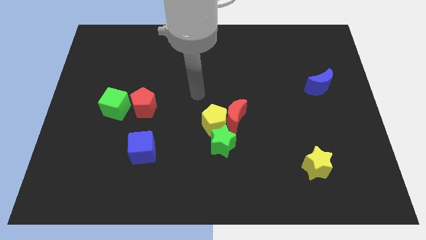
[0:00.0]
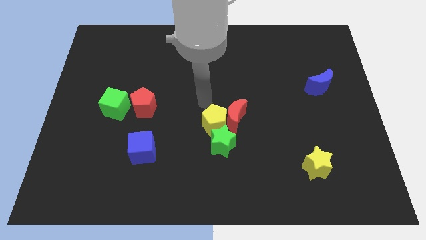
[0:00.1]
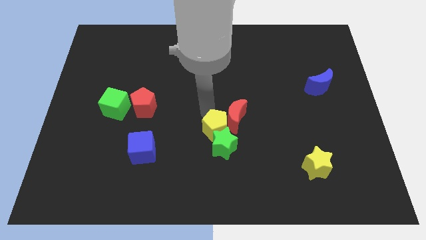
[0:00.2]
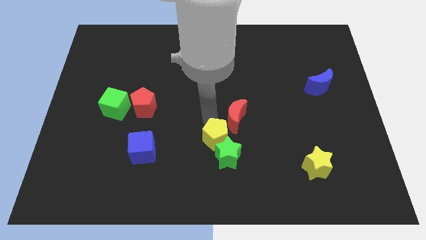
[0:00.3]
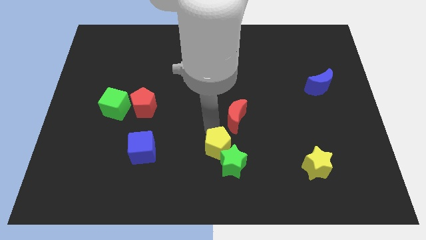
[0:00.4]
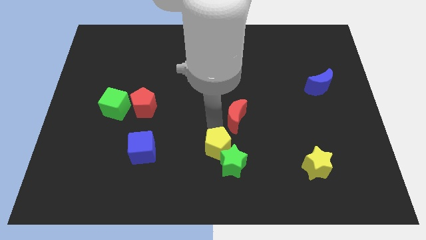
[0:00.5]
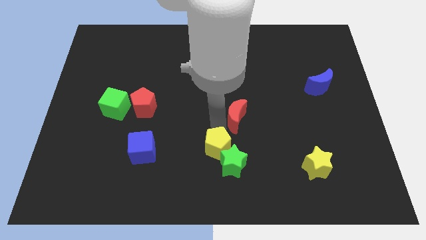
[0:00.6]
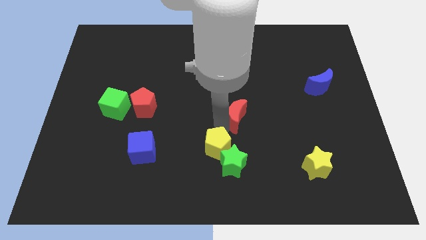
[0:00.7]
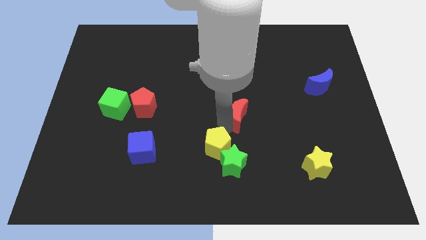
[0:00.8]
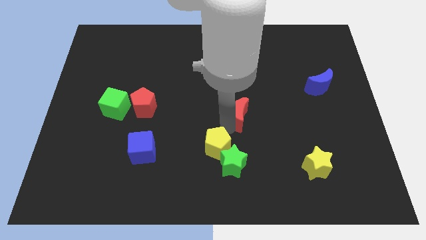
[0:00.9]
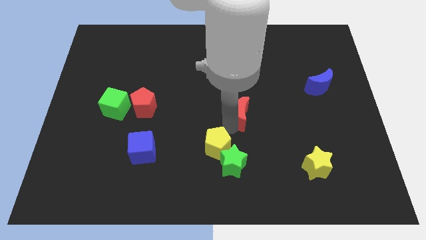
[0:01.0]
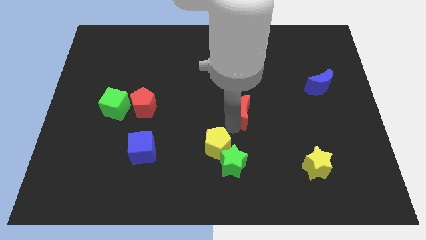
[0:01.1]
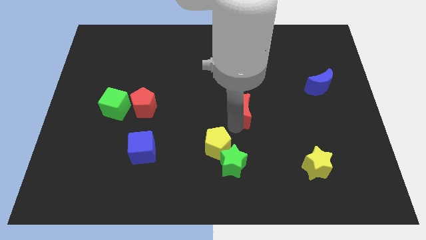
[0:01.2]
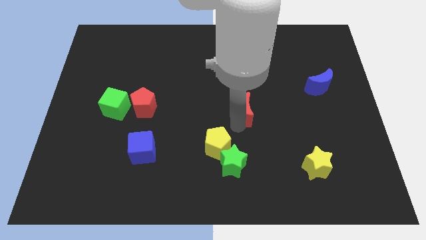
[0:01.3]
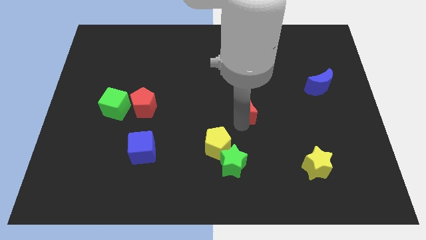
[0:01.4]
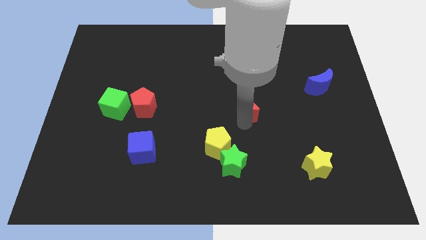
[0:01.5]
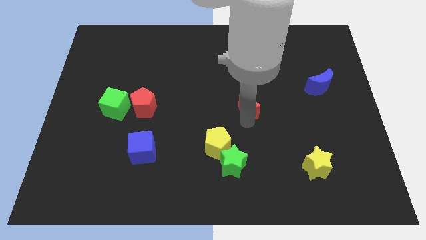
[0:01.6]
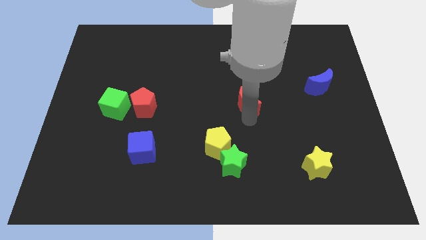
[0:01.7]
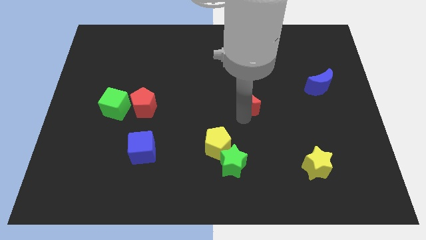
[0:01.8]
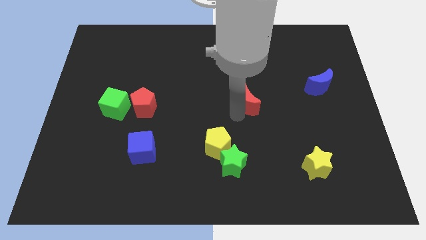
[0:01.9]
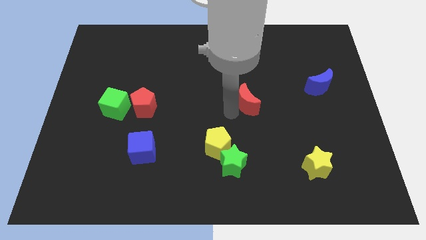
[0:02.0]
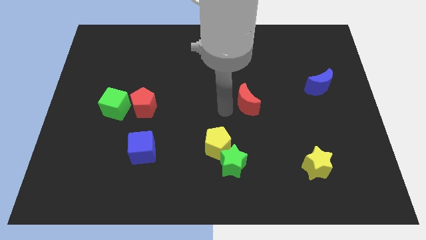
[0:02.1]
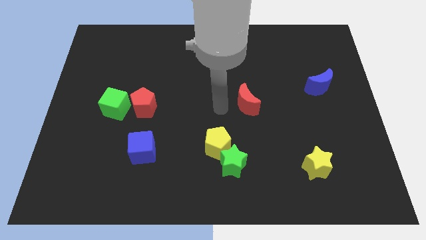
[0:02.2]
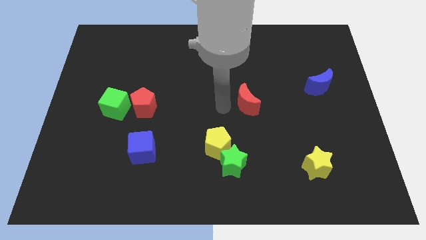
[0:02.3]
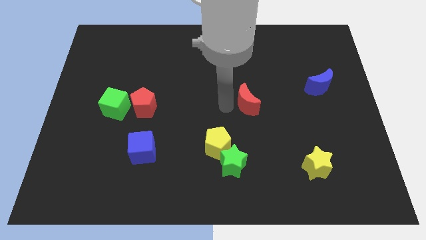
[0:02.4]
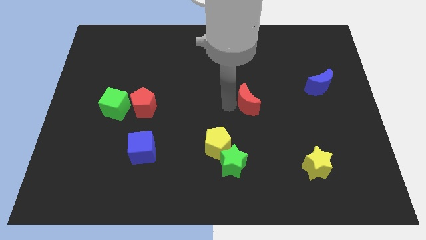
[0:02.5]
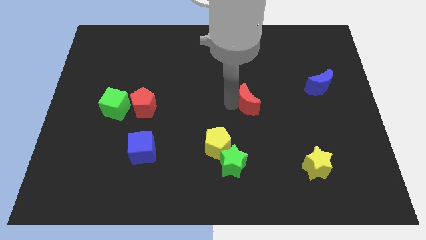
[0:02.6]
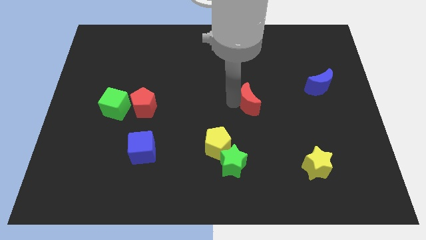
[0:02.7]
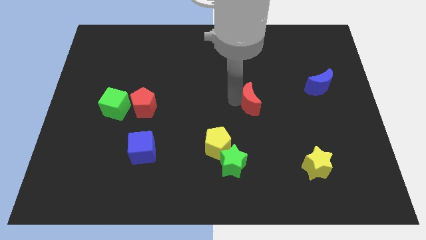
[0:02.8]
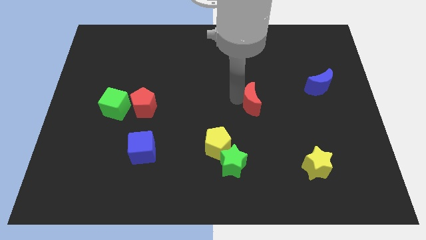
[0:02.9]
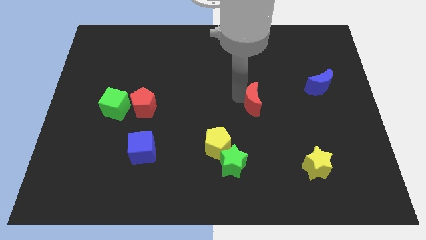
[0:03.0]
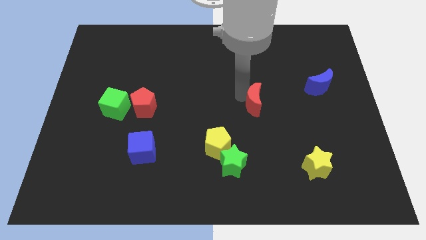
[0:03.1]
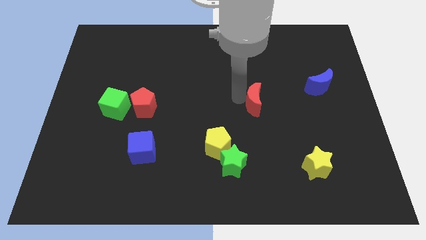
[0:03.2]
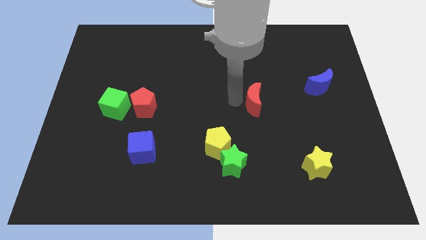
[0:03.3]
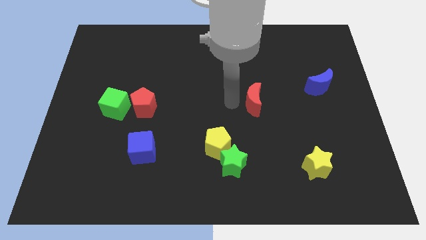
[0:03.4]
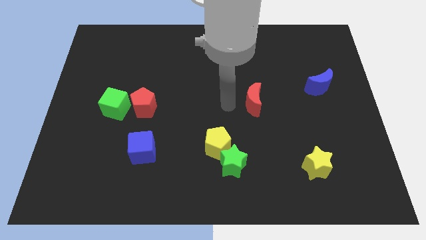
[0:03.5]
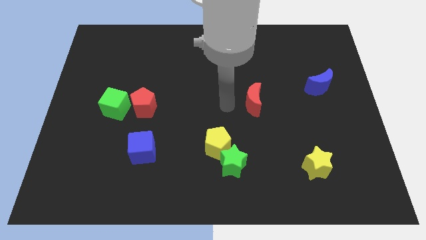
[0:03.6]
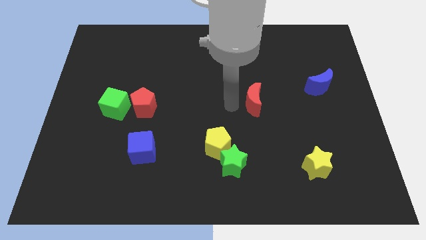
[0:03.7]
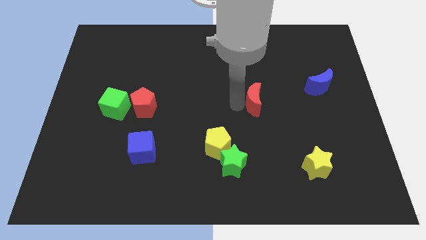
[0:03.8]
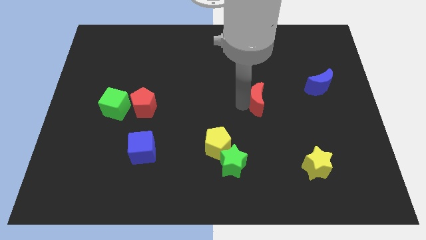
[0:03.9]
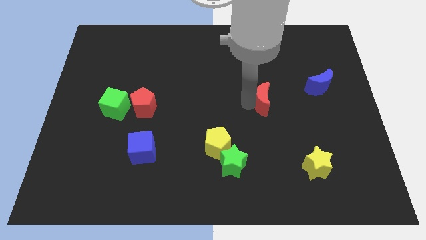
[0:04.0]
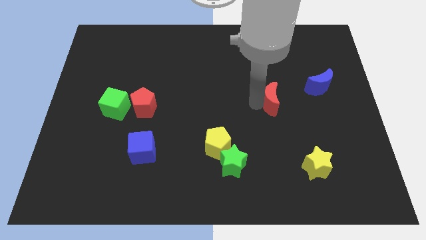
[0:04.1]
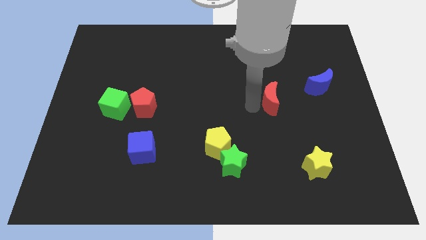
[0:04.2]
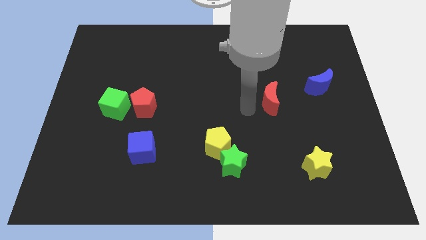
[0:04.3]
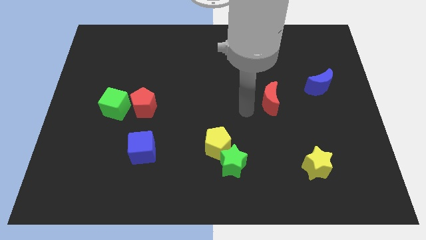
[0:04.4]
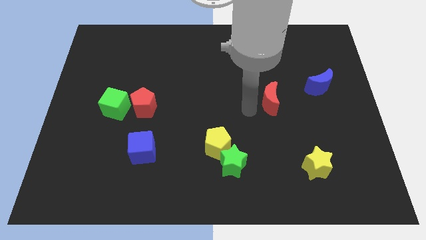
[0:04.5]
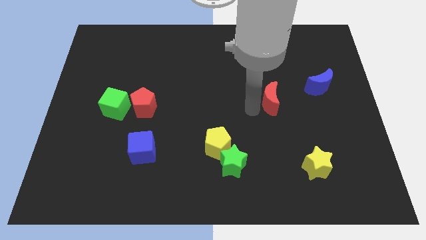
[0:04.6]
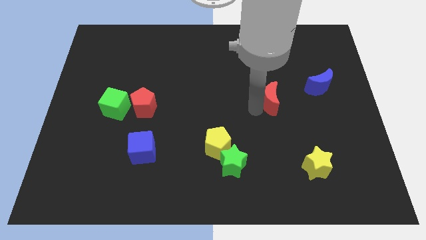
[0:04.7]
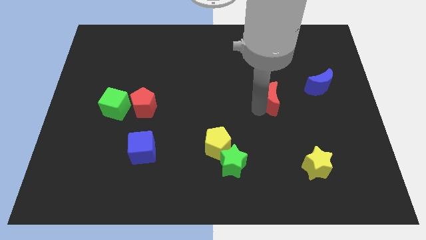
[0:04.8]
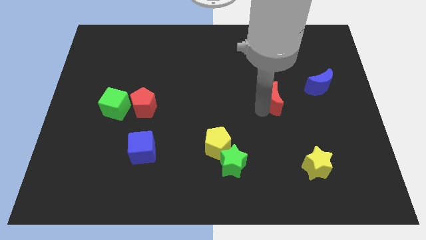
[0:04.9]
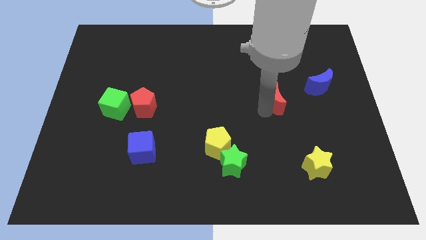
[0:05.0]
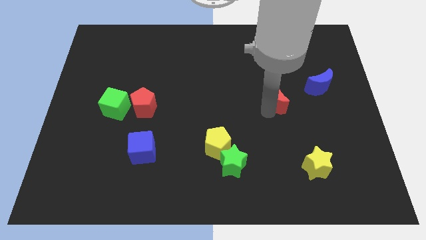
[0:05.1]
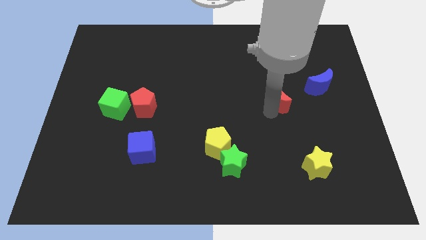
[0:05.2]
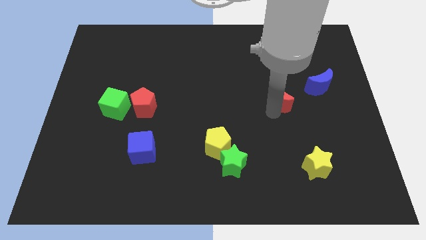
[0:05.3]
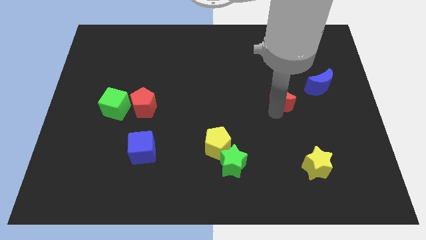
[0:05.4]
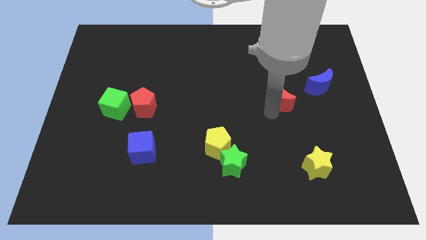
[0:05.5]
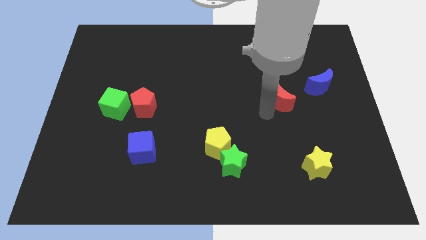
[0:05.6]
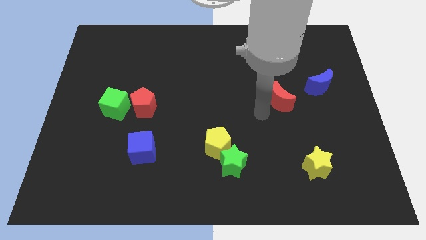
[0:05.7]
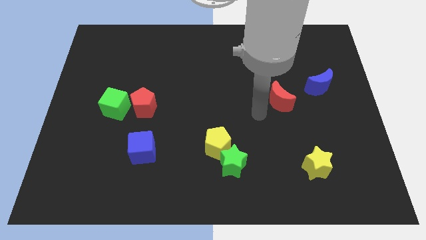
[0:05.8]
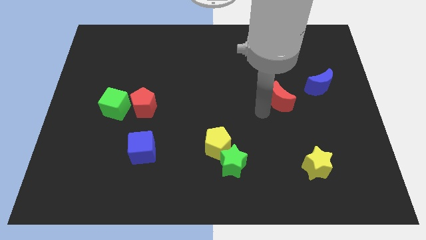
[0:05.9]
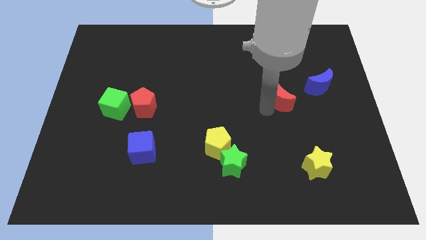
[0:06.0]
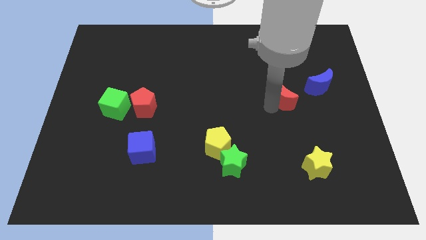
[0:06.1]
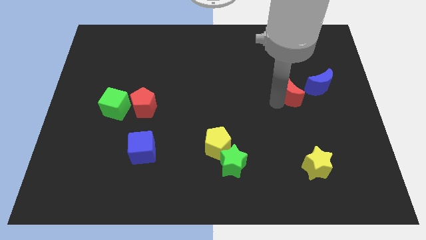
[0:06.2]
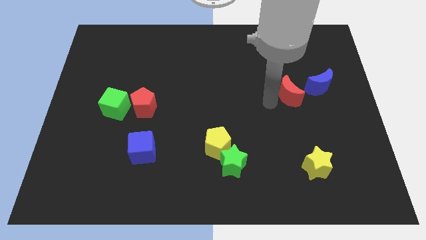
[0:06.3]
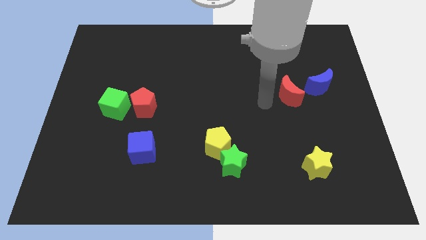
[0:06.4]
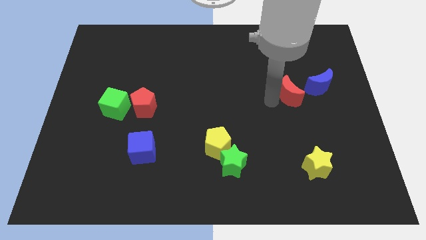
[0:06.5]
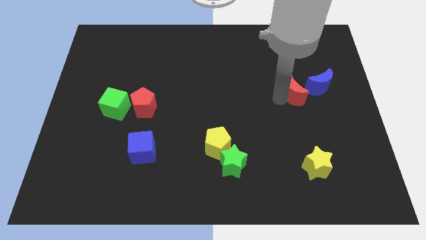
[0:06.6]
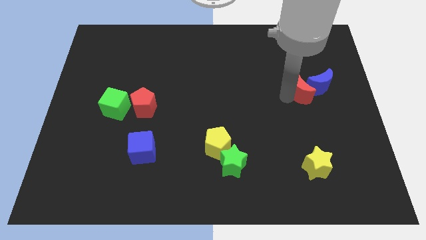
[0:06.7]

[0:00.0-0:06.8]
put the red moon to the blue moon
